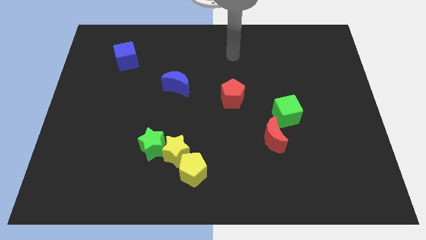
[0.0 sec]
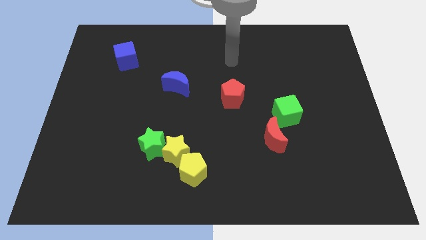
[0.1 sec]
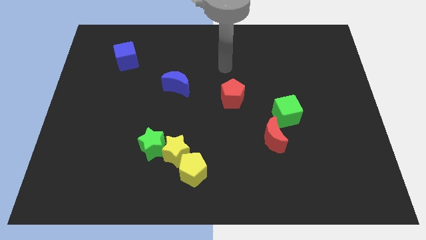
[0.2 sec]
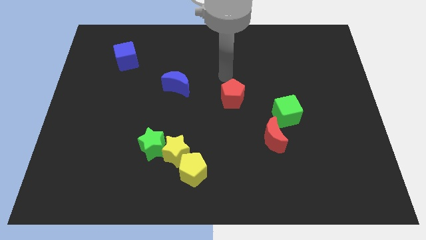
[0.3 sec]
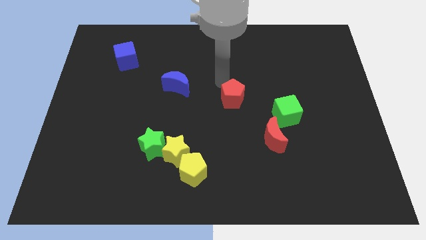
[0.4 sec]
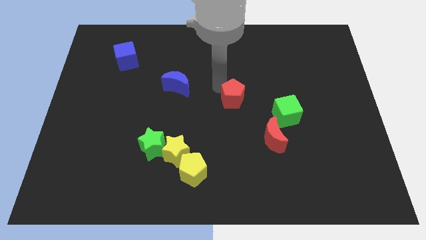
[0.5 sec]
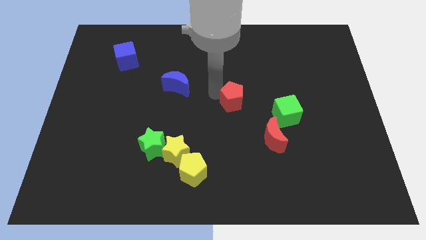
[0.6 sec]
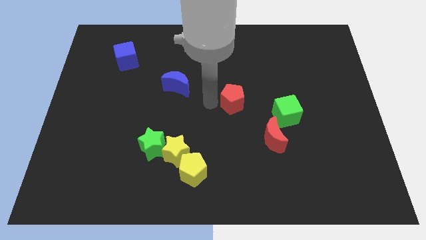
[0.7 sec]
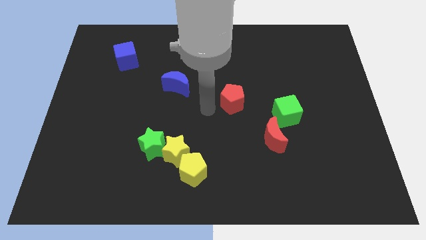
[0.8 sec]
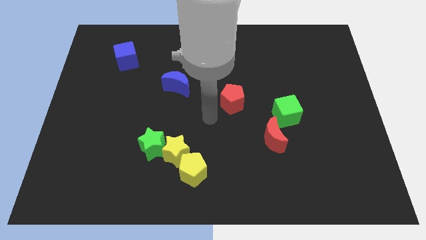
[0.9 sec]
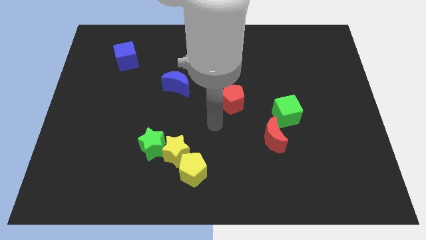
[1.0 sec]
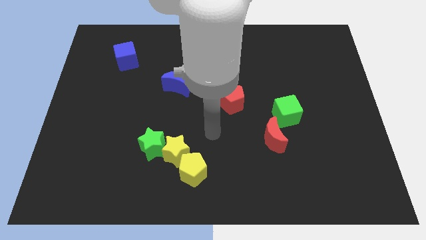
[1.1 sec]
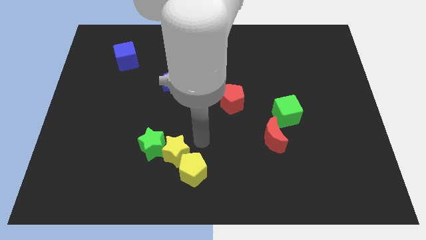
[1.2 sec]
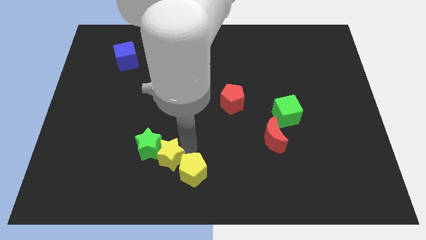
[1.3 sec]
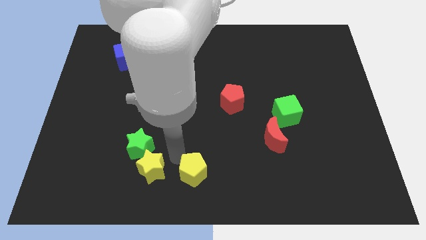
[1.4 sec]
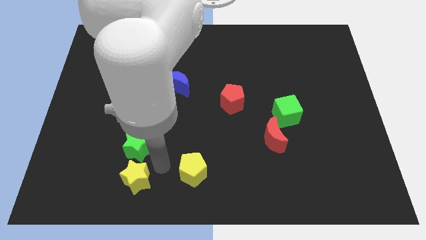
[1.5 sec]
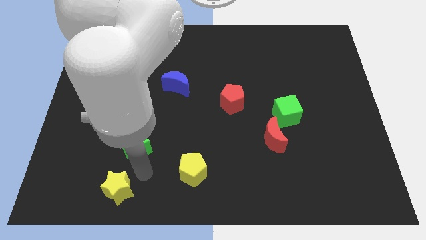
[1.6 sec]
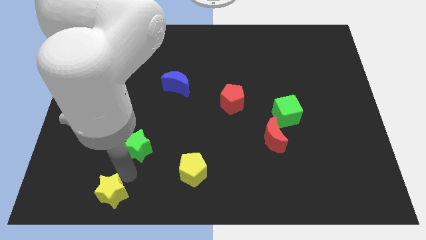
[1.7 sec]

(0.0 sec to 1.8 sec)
separate the green star from the yellow star

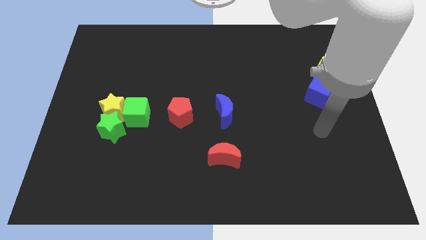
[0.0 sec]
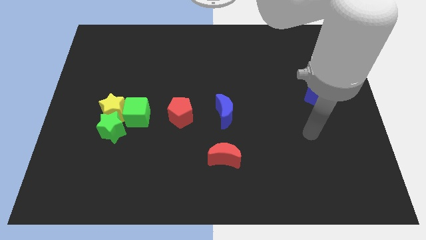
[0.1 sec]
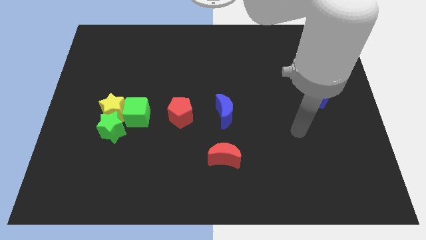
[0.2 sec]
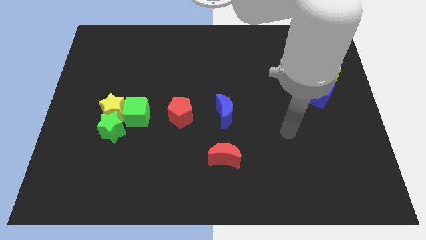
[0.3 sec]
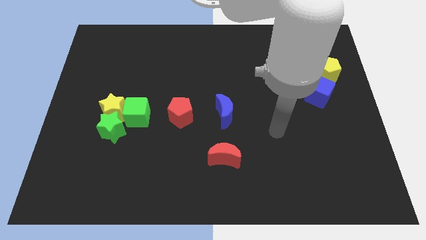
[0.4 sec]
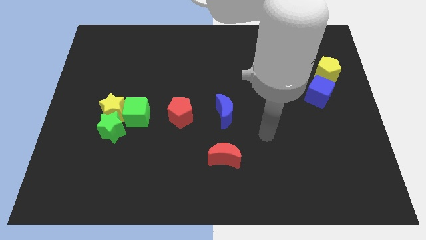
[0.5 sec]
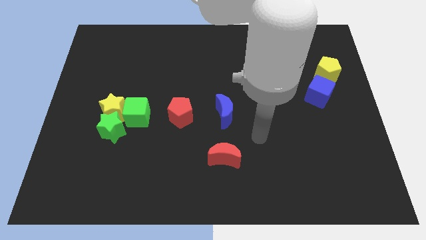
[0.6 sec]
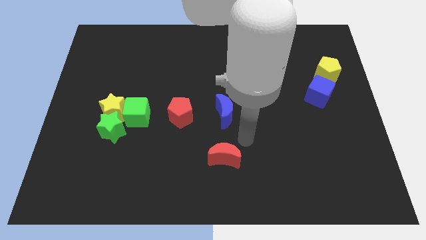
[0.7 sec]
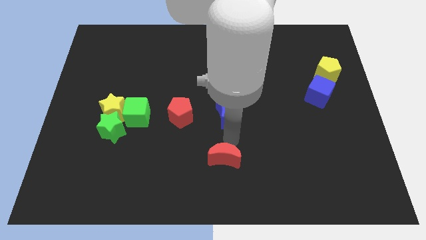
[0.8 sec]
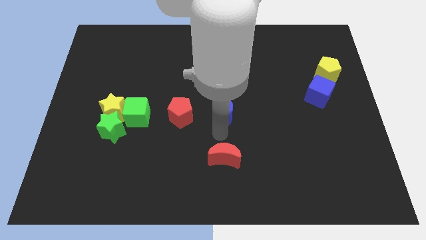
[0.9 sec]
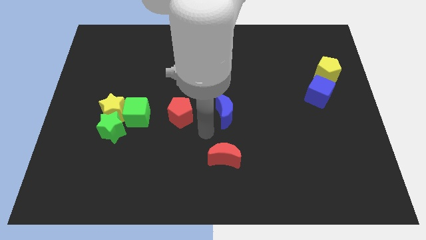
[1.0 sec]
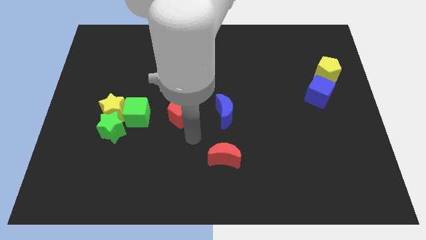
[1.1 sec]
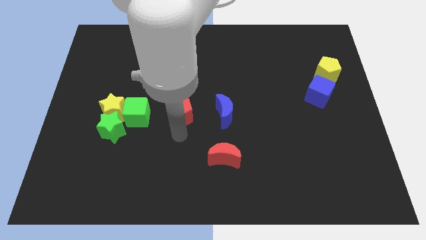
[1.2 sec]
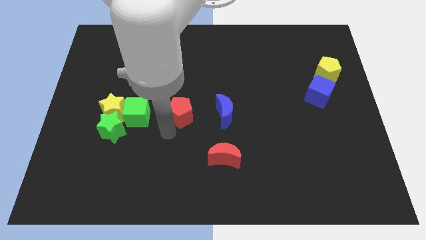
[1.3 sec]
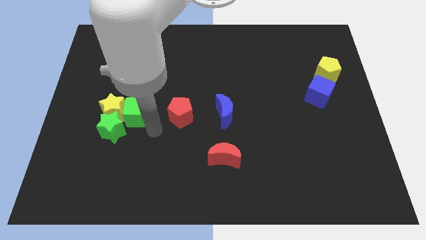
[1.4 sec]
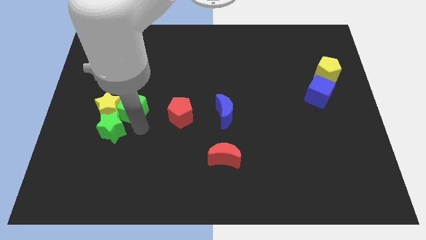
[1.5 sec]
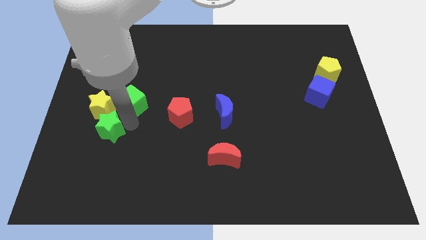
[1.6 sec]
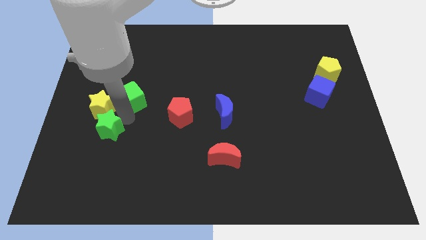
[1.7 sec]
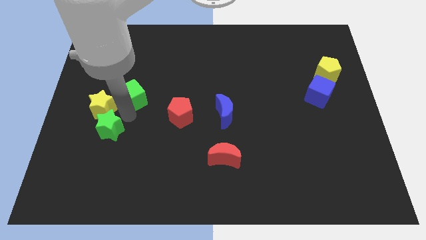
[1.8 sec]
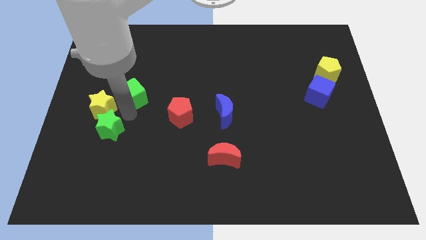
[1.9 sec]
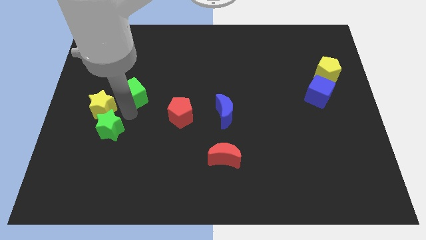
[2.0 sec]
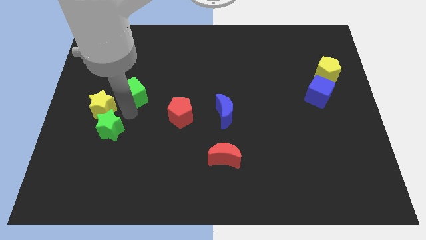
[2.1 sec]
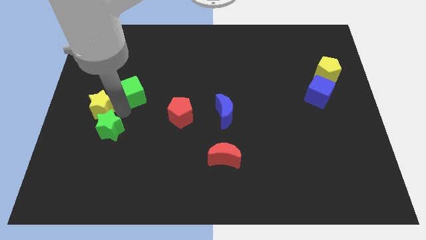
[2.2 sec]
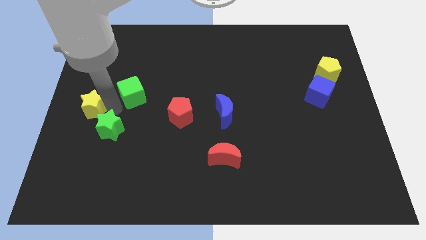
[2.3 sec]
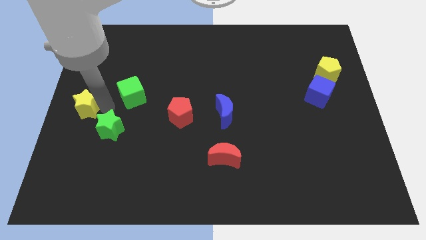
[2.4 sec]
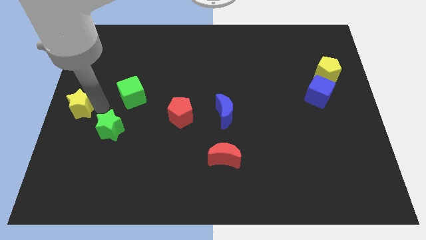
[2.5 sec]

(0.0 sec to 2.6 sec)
separate the yellow star from the green star and green cube

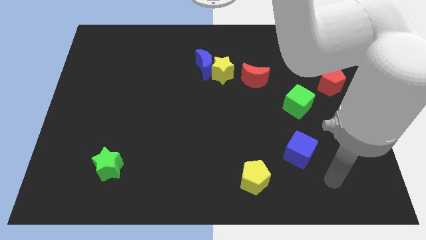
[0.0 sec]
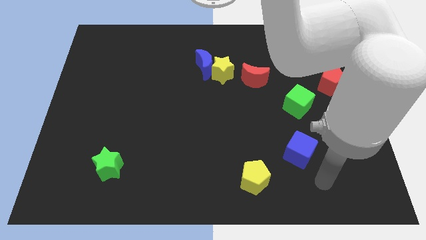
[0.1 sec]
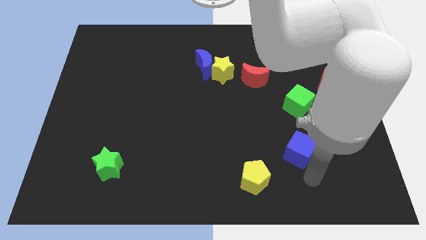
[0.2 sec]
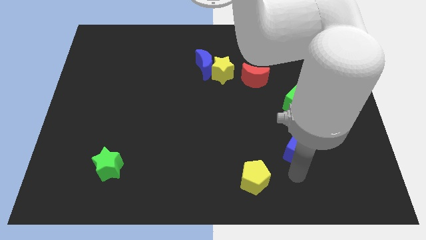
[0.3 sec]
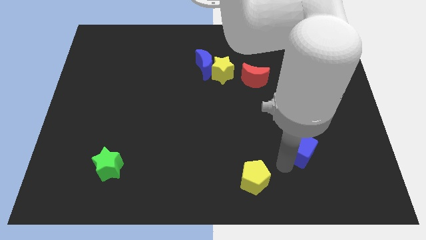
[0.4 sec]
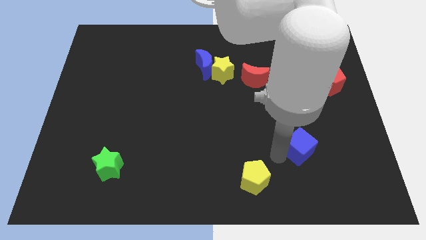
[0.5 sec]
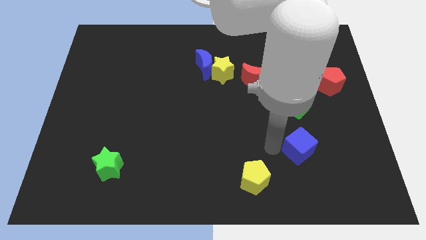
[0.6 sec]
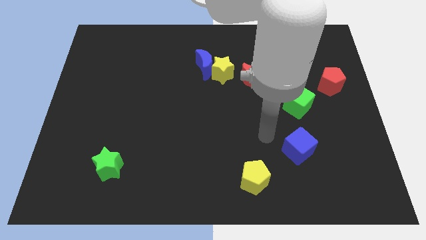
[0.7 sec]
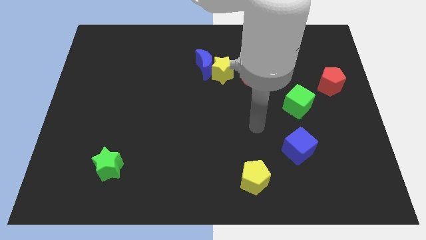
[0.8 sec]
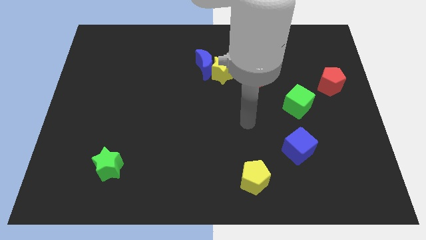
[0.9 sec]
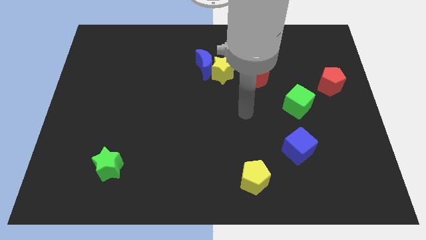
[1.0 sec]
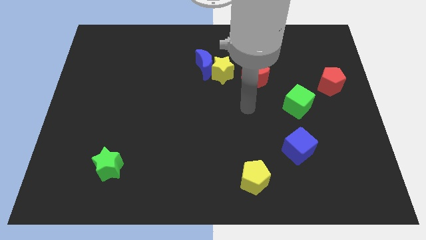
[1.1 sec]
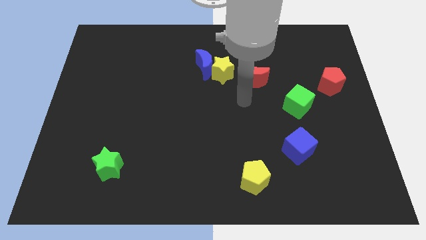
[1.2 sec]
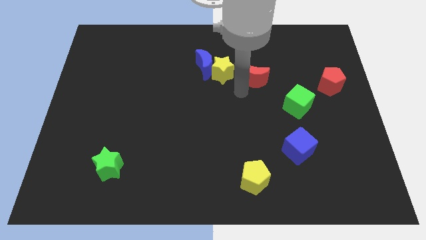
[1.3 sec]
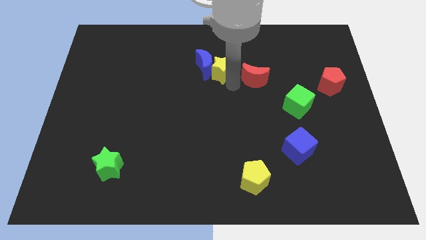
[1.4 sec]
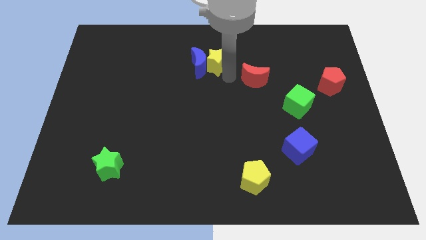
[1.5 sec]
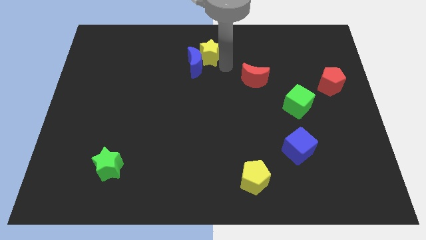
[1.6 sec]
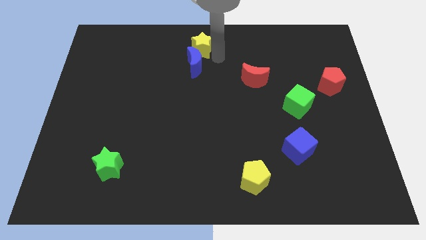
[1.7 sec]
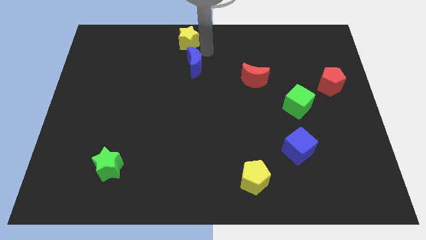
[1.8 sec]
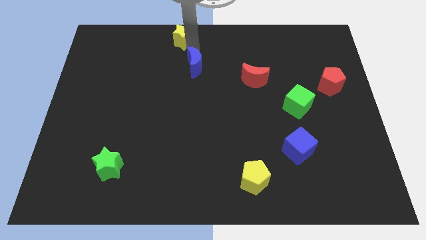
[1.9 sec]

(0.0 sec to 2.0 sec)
pull the blue moon apart from the yellow star

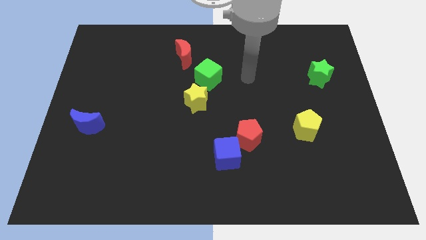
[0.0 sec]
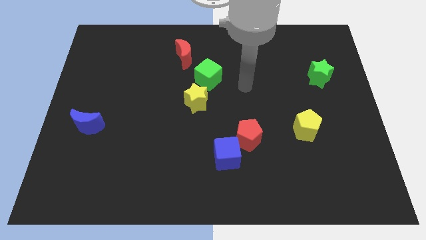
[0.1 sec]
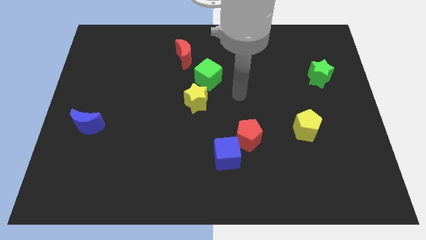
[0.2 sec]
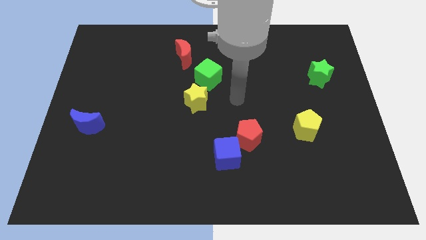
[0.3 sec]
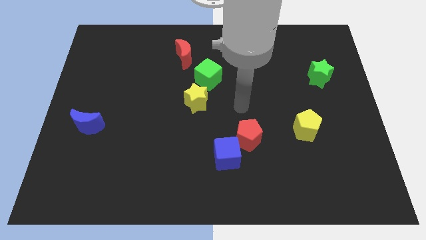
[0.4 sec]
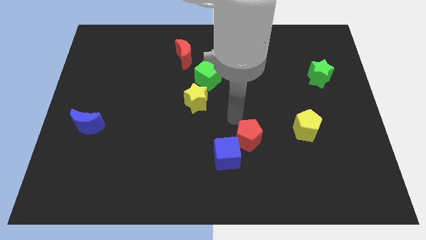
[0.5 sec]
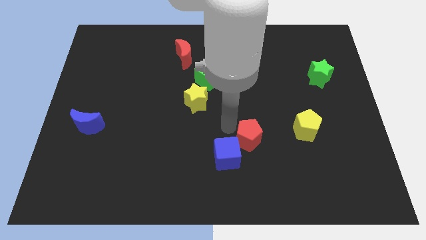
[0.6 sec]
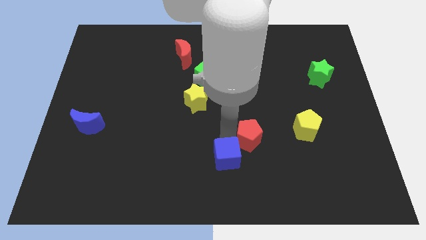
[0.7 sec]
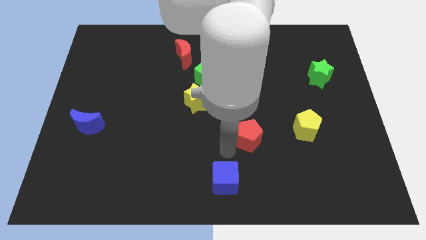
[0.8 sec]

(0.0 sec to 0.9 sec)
pull the red pentagon apart from the blue cube

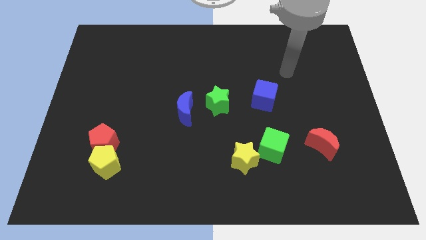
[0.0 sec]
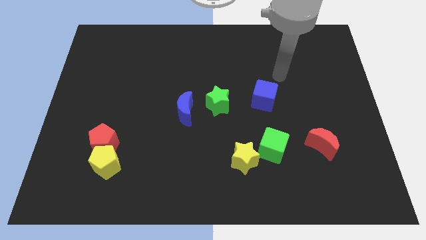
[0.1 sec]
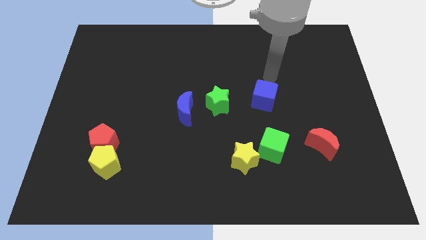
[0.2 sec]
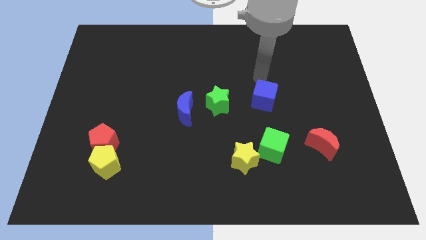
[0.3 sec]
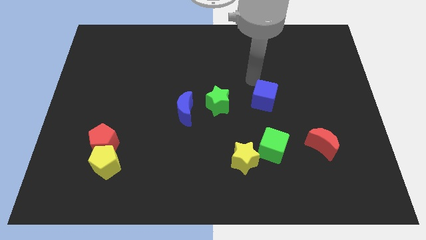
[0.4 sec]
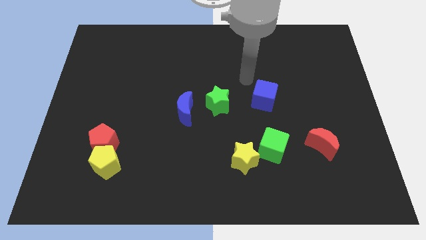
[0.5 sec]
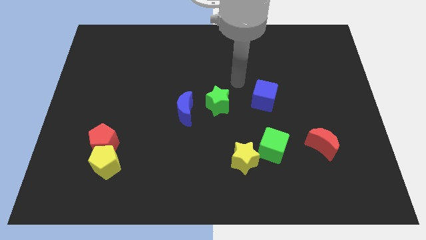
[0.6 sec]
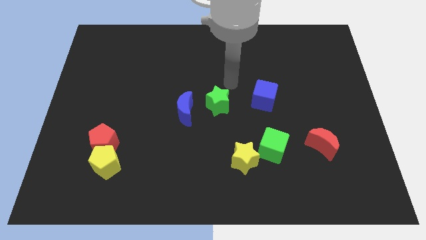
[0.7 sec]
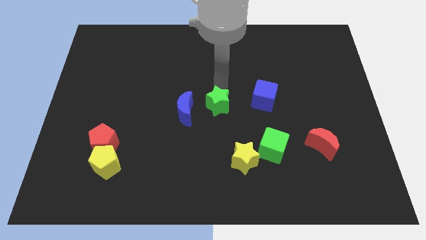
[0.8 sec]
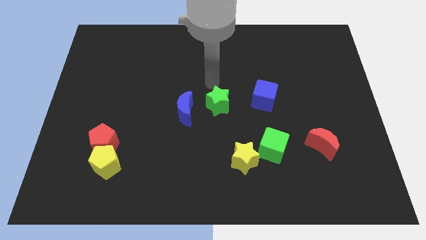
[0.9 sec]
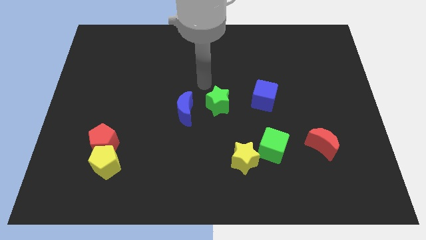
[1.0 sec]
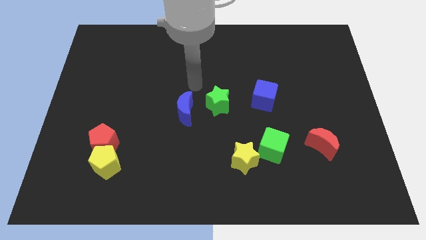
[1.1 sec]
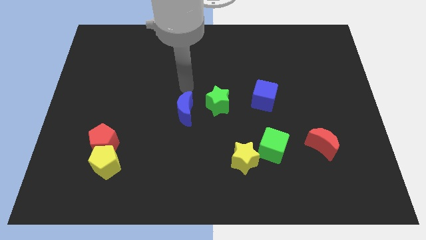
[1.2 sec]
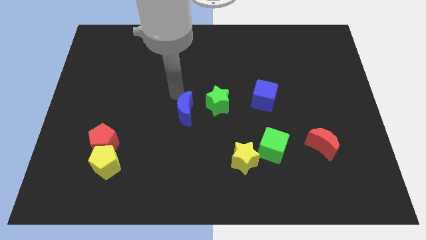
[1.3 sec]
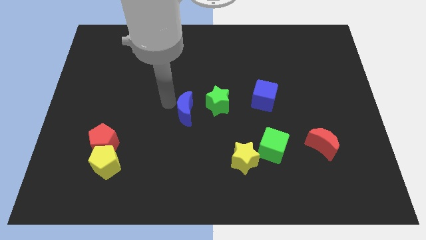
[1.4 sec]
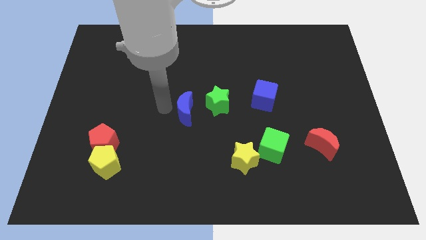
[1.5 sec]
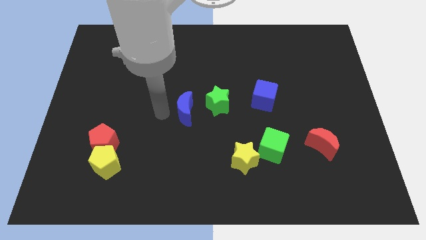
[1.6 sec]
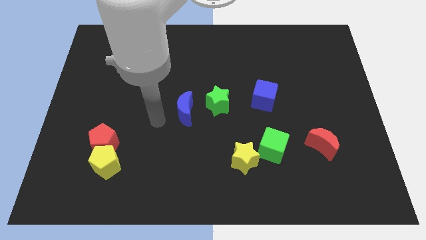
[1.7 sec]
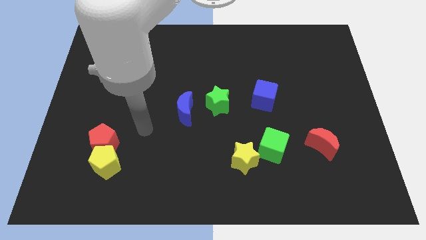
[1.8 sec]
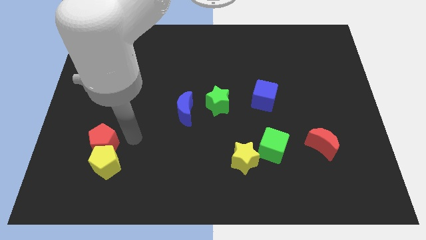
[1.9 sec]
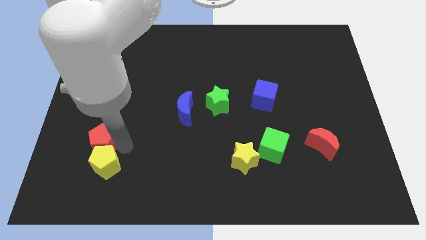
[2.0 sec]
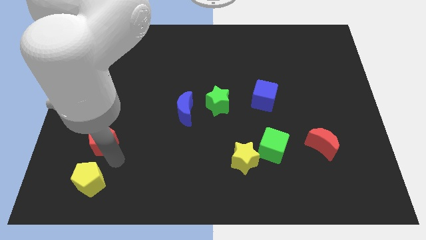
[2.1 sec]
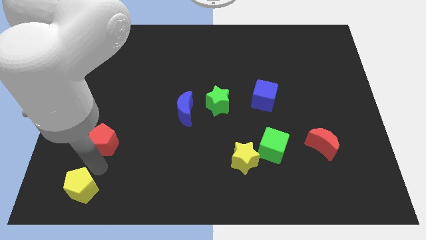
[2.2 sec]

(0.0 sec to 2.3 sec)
pull the red pentagon apart from the yellow pentagon
